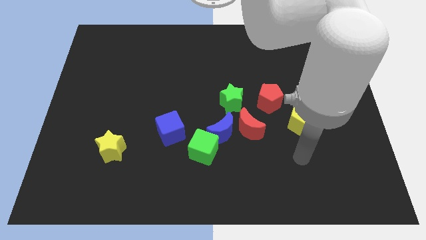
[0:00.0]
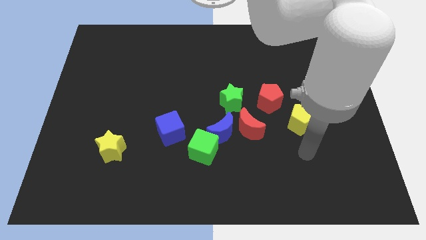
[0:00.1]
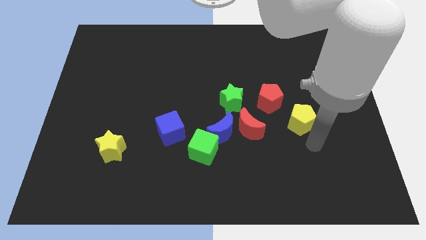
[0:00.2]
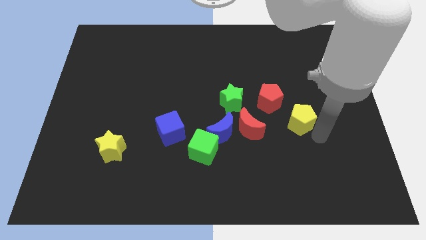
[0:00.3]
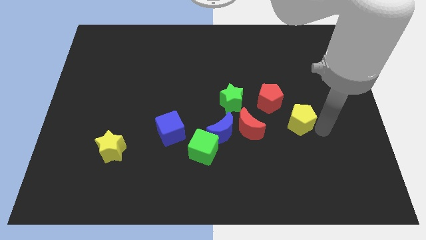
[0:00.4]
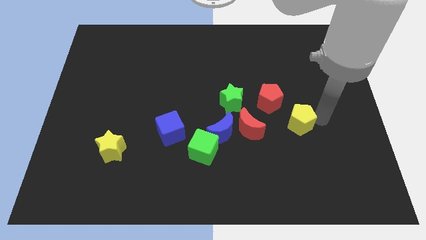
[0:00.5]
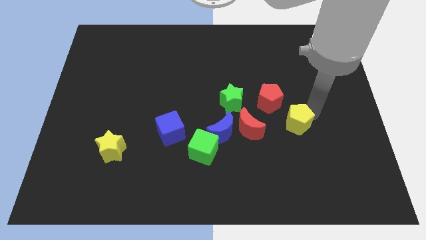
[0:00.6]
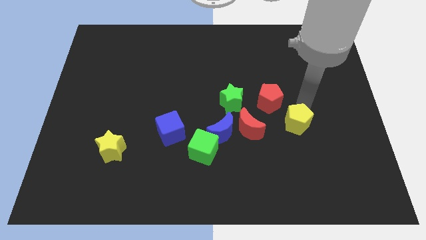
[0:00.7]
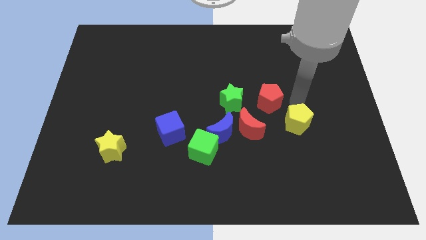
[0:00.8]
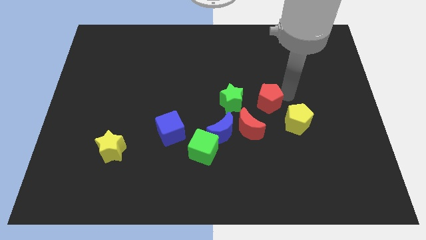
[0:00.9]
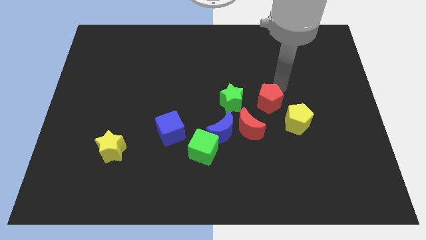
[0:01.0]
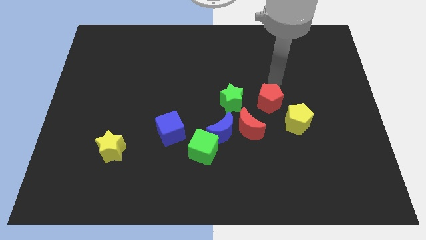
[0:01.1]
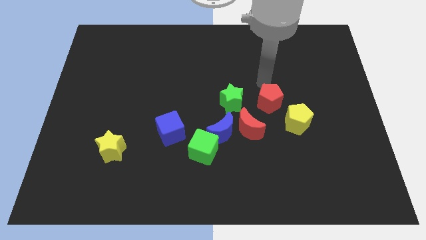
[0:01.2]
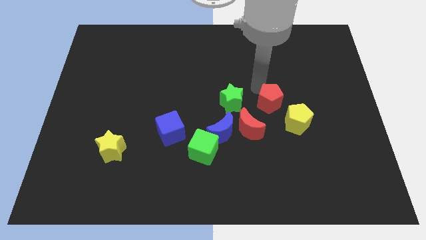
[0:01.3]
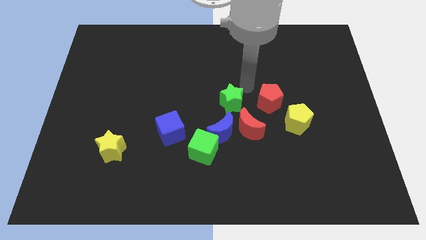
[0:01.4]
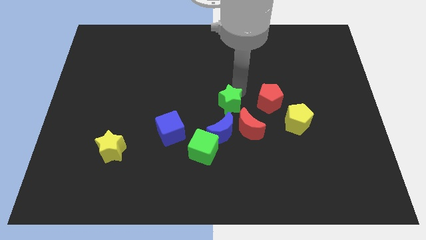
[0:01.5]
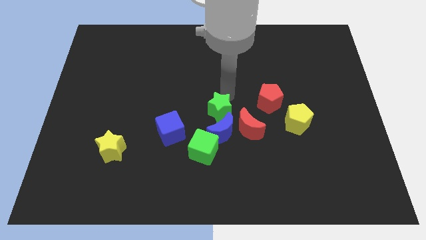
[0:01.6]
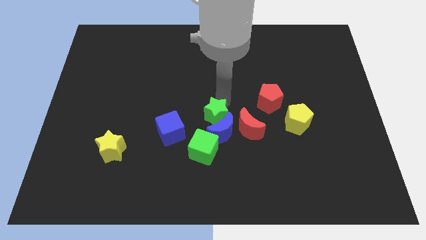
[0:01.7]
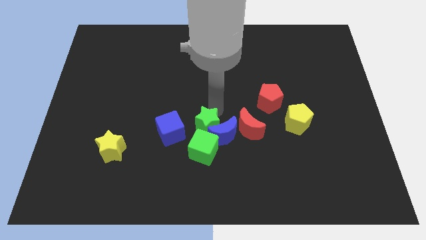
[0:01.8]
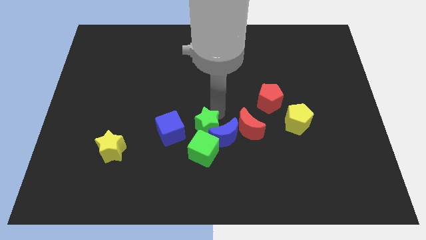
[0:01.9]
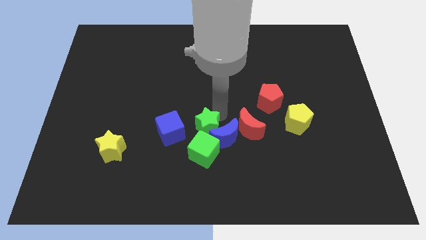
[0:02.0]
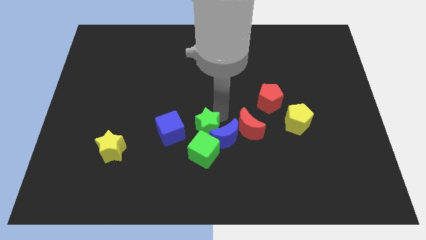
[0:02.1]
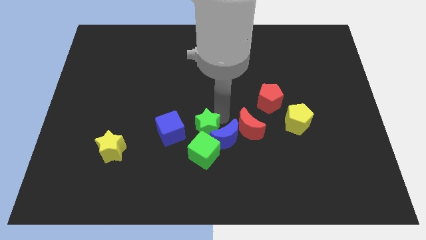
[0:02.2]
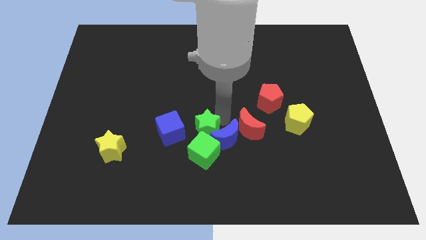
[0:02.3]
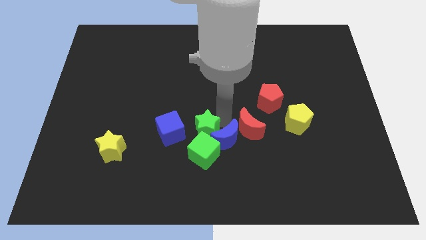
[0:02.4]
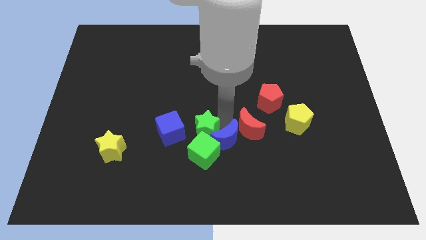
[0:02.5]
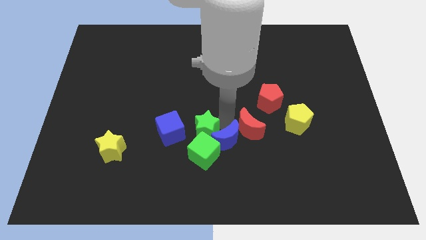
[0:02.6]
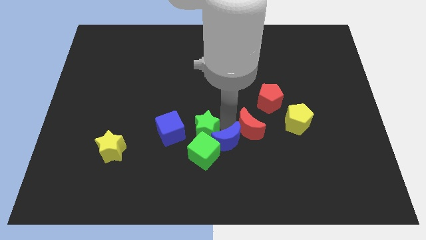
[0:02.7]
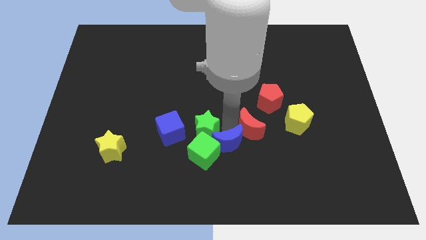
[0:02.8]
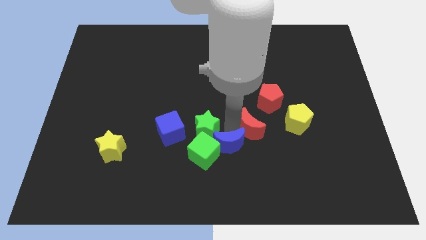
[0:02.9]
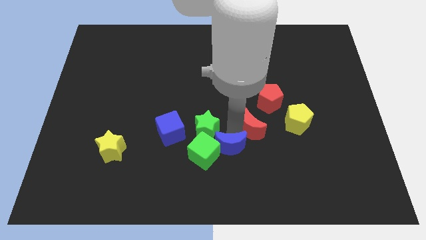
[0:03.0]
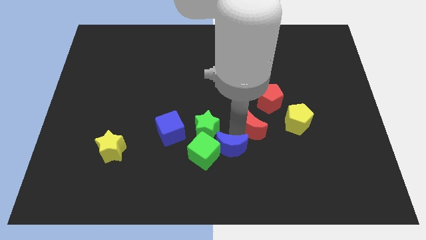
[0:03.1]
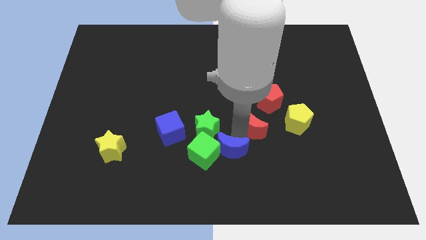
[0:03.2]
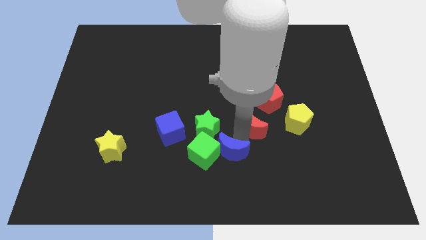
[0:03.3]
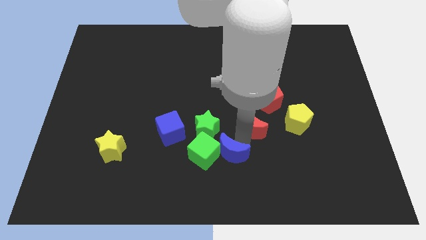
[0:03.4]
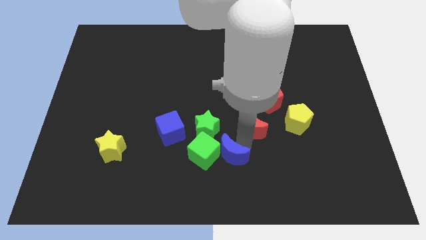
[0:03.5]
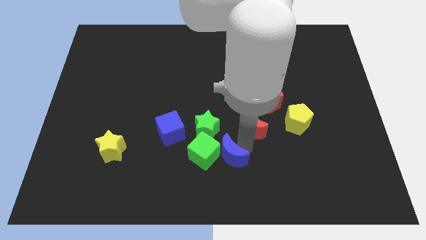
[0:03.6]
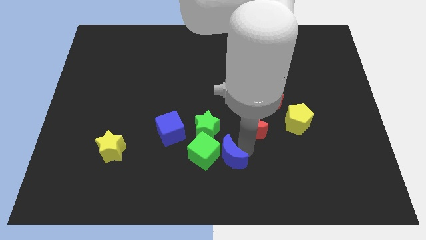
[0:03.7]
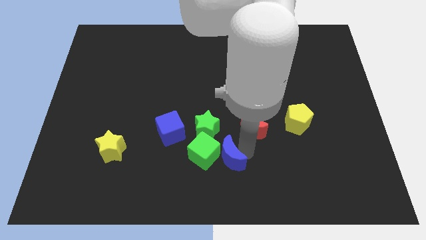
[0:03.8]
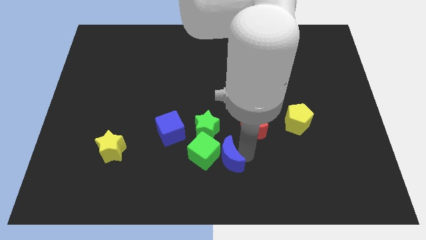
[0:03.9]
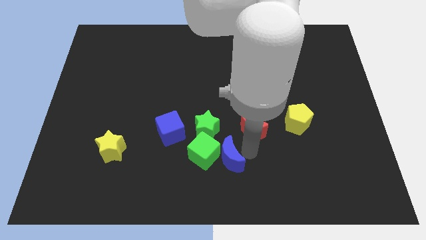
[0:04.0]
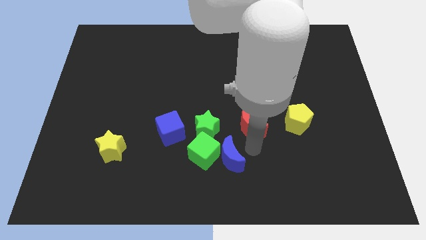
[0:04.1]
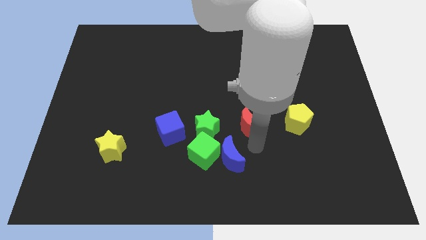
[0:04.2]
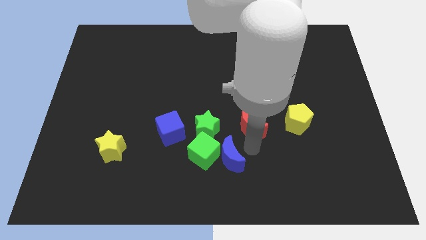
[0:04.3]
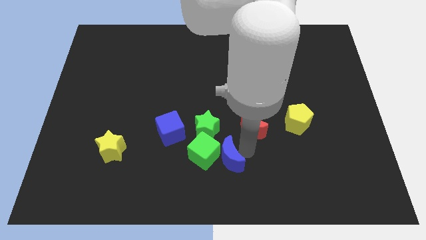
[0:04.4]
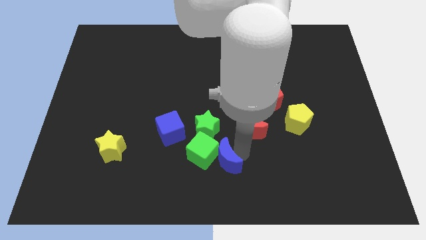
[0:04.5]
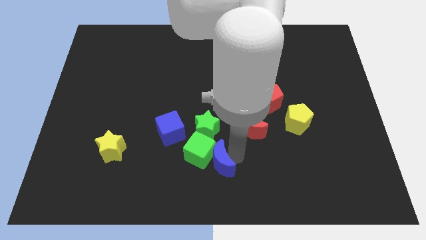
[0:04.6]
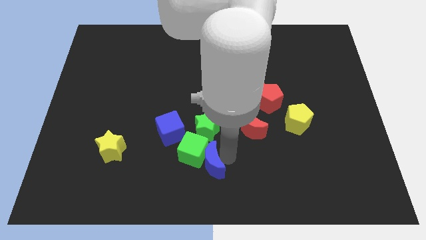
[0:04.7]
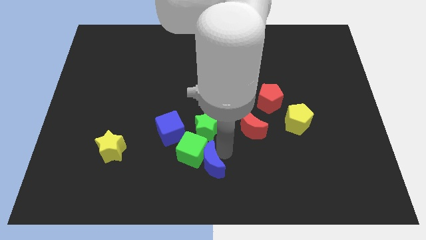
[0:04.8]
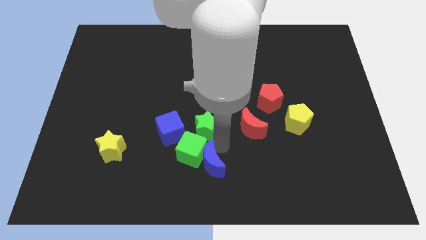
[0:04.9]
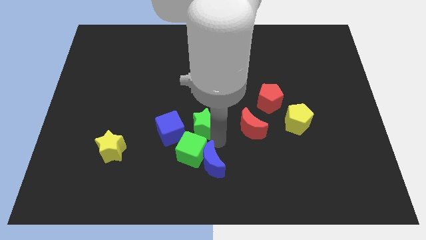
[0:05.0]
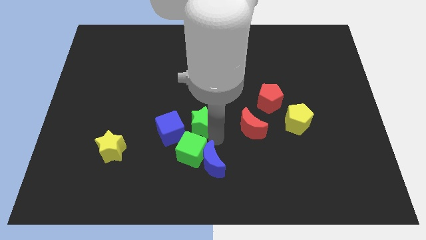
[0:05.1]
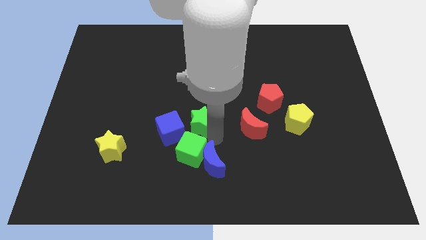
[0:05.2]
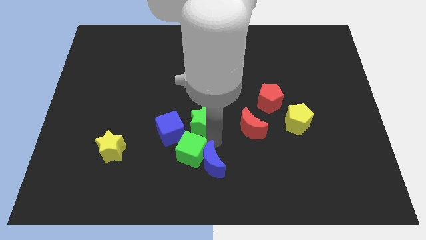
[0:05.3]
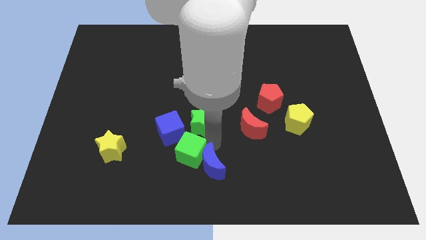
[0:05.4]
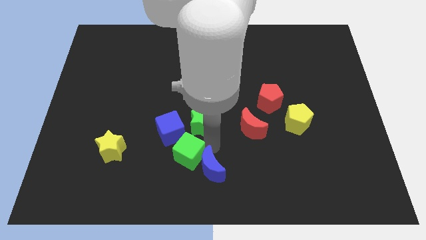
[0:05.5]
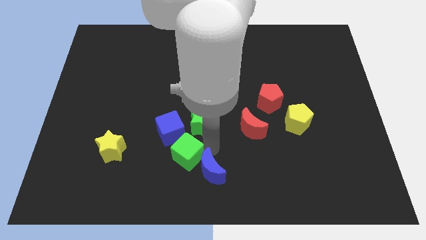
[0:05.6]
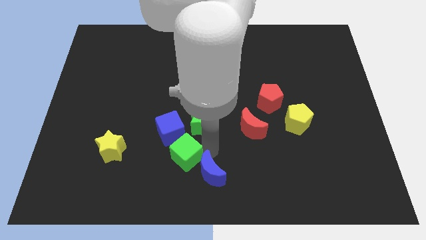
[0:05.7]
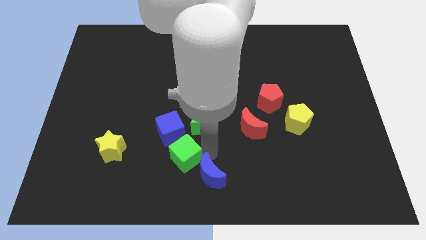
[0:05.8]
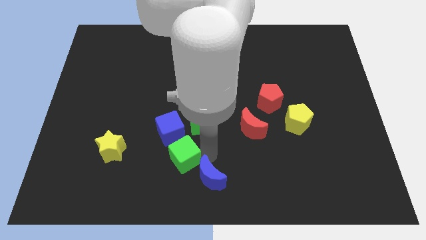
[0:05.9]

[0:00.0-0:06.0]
pull the blue moon apart from the group

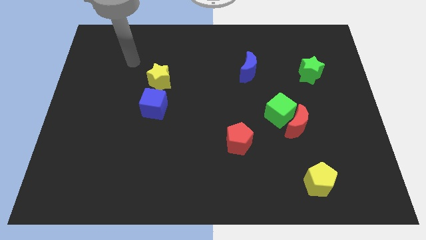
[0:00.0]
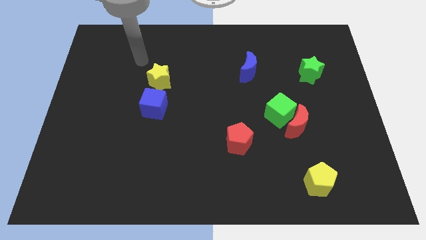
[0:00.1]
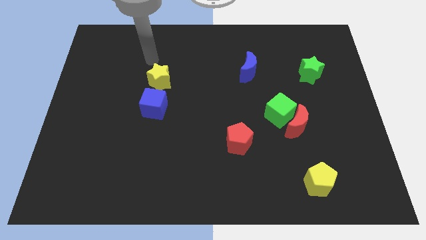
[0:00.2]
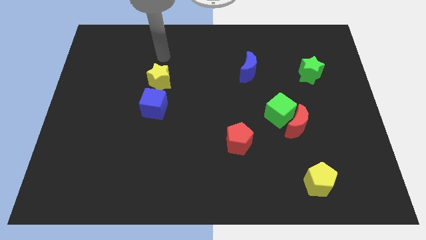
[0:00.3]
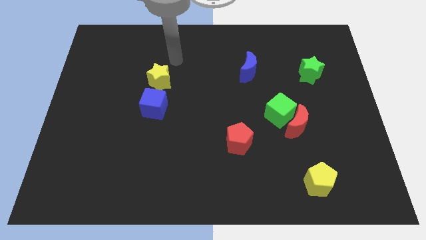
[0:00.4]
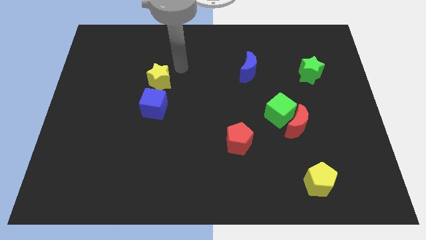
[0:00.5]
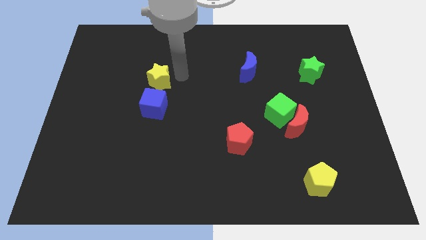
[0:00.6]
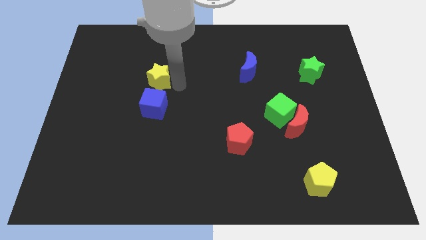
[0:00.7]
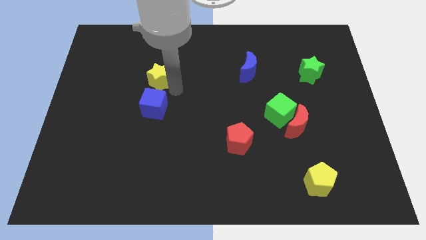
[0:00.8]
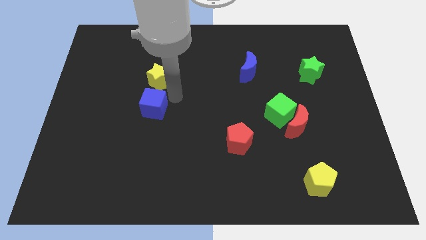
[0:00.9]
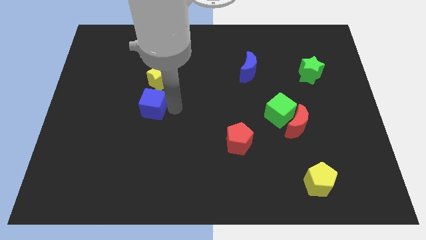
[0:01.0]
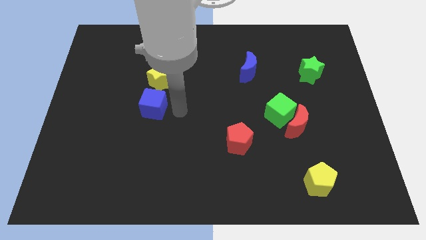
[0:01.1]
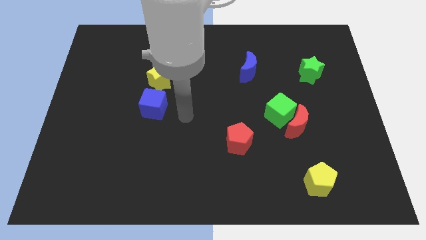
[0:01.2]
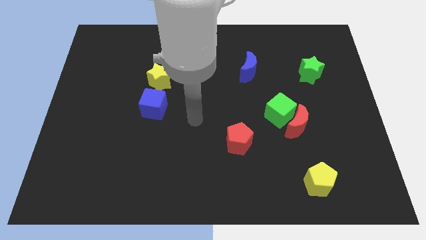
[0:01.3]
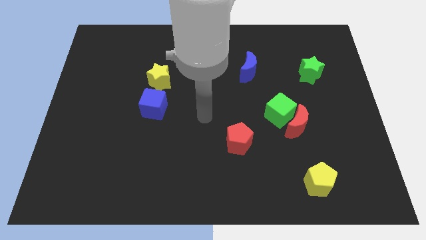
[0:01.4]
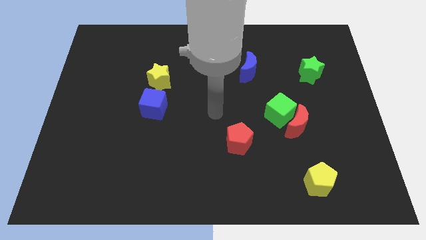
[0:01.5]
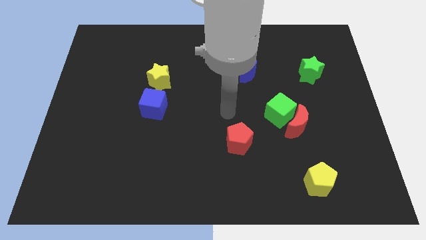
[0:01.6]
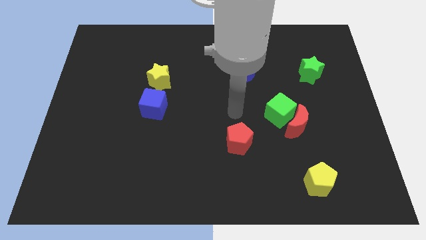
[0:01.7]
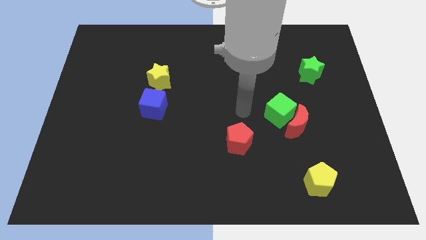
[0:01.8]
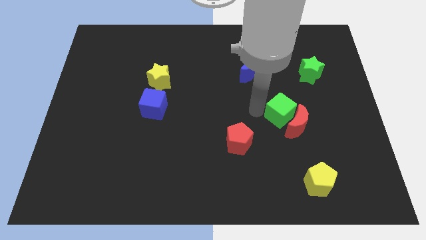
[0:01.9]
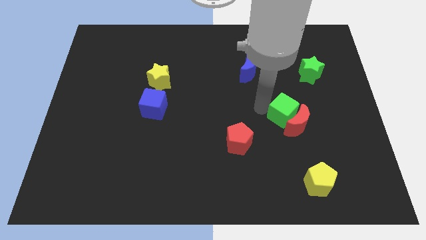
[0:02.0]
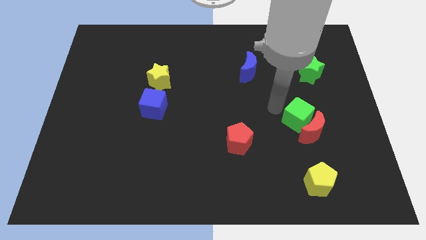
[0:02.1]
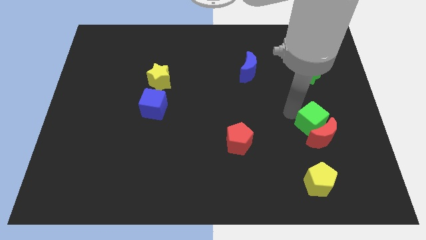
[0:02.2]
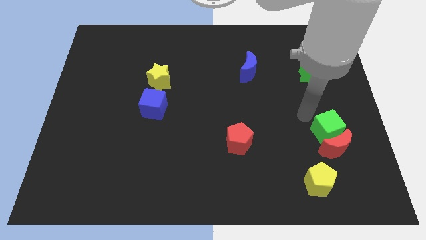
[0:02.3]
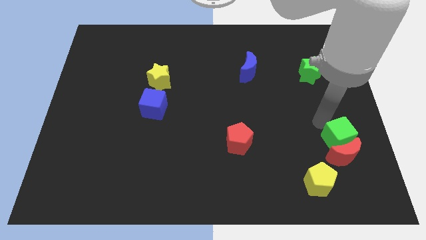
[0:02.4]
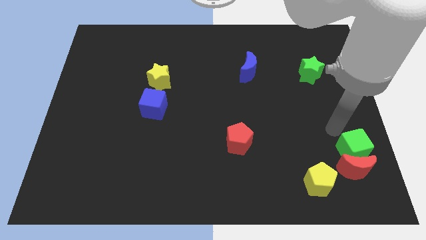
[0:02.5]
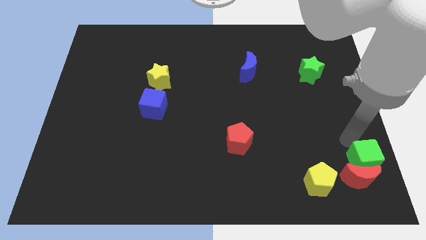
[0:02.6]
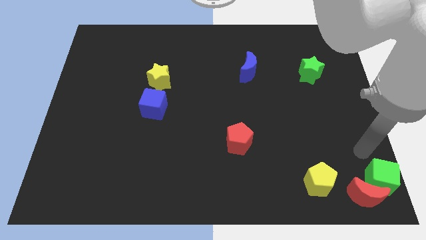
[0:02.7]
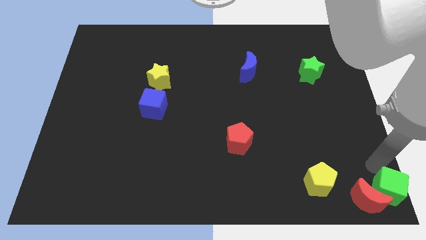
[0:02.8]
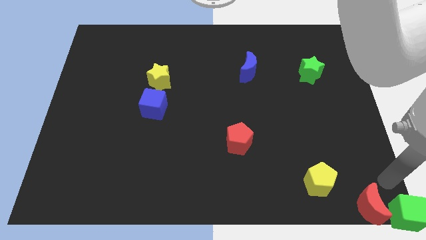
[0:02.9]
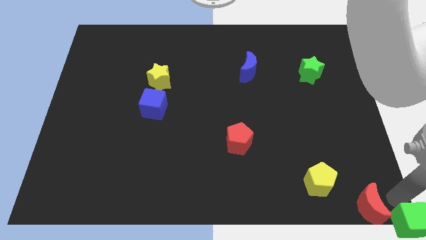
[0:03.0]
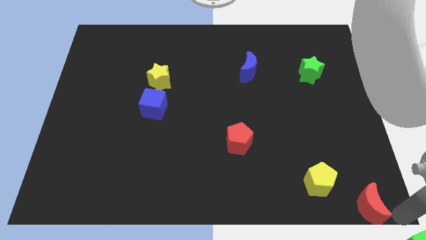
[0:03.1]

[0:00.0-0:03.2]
pull the red moon apart from the green cube

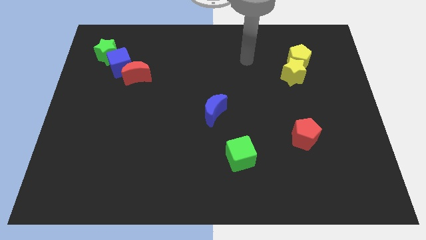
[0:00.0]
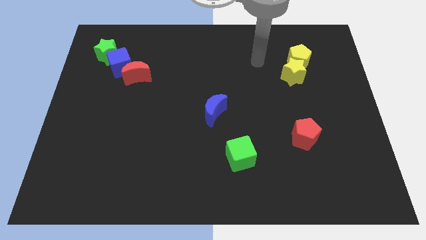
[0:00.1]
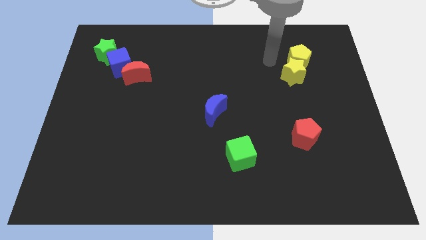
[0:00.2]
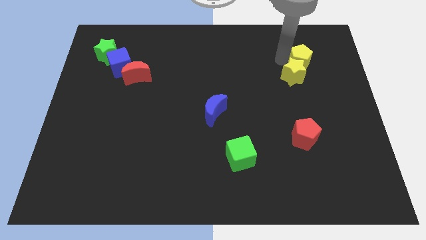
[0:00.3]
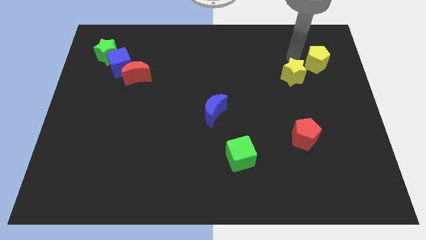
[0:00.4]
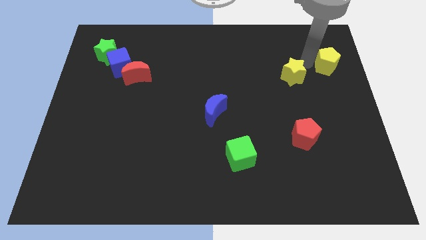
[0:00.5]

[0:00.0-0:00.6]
separate the yellow star from the yellow pentagon
